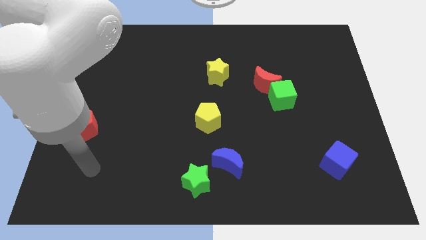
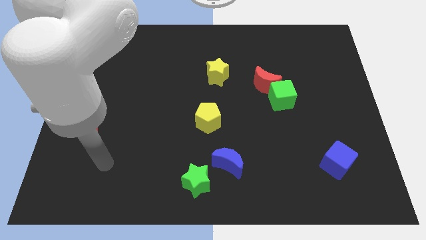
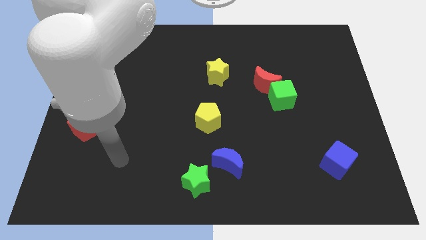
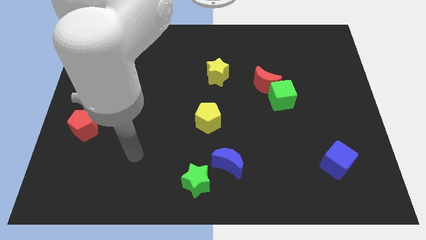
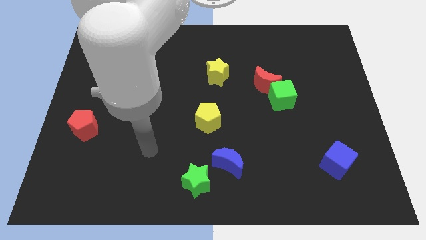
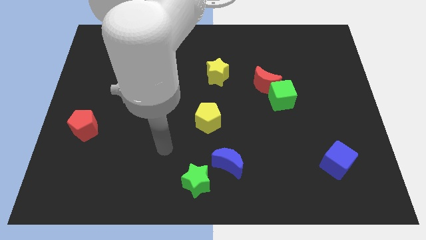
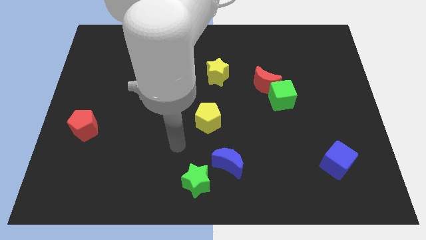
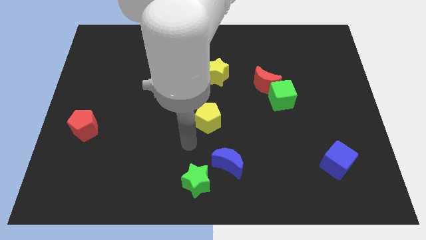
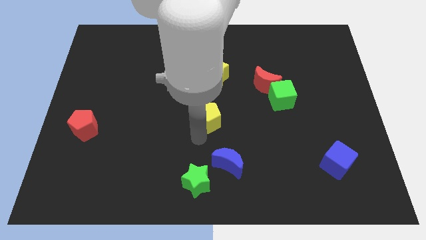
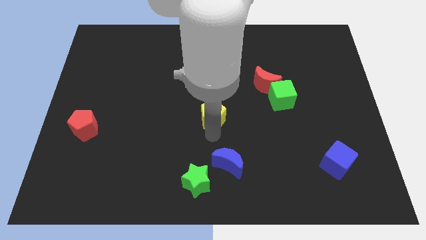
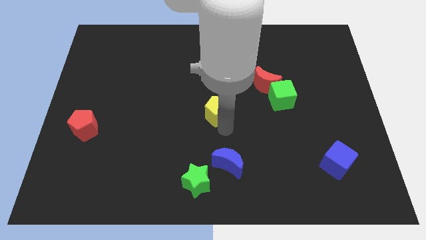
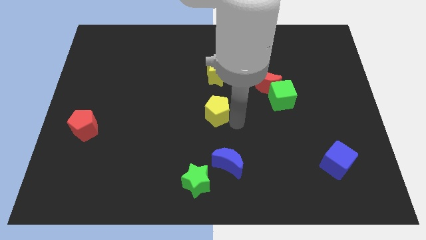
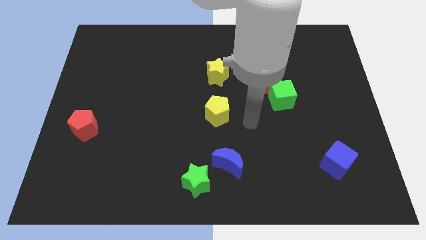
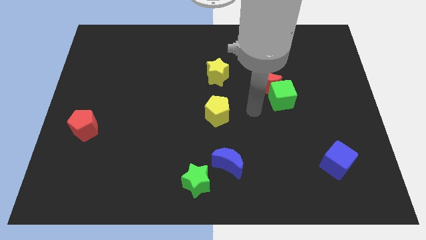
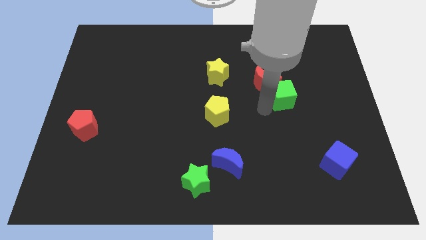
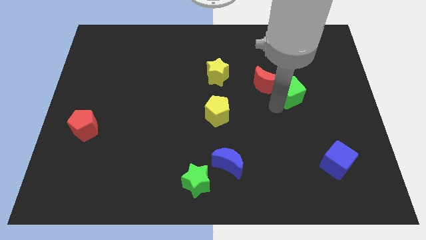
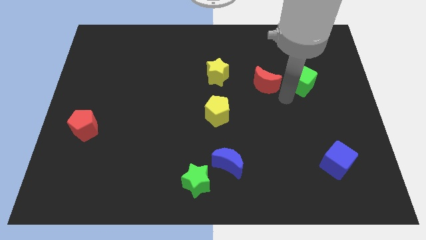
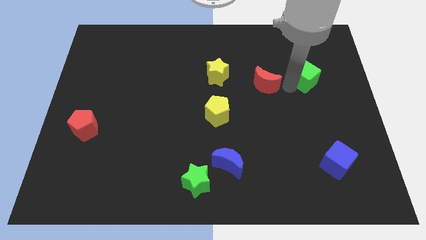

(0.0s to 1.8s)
move the red moon away from the green cube

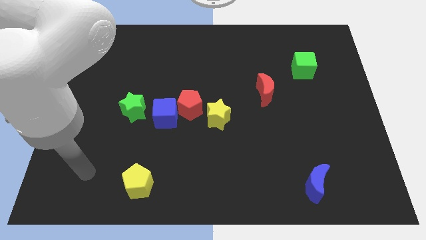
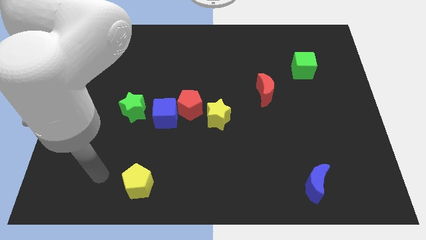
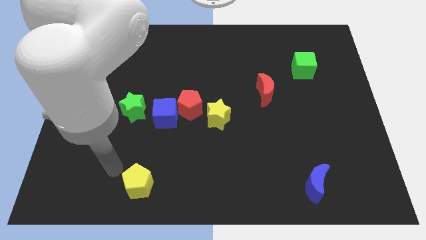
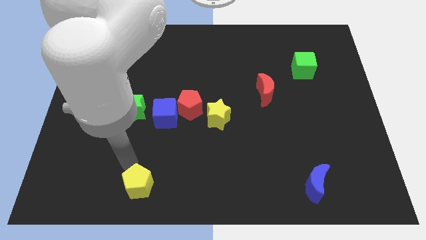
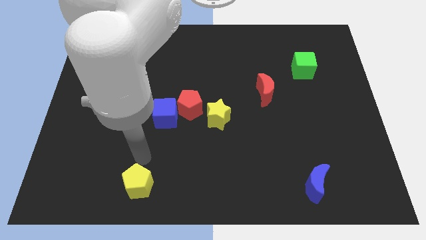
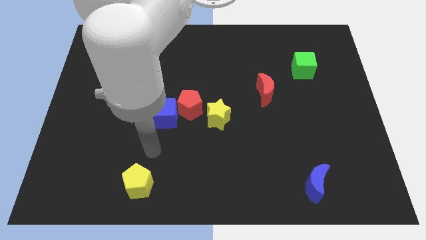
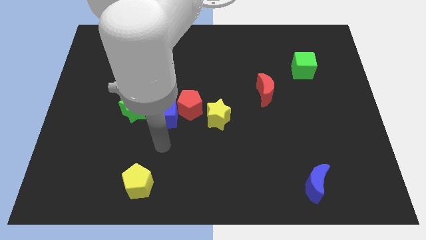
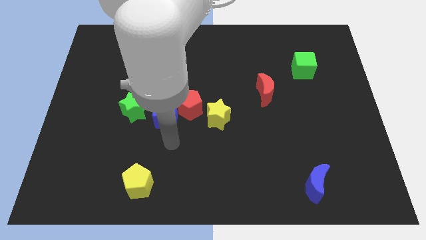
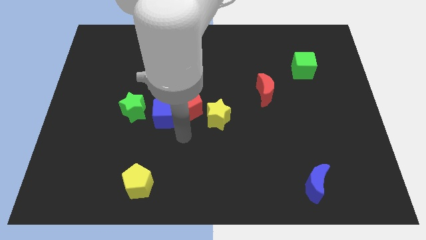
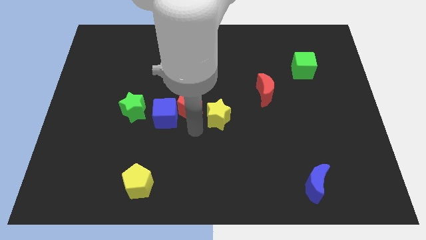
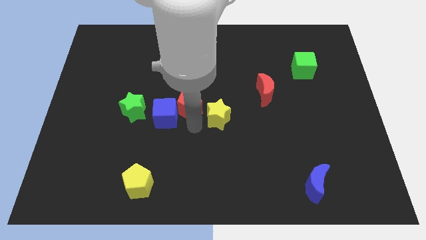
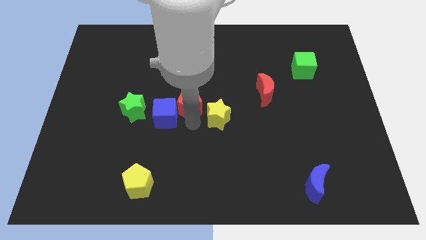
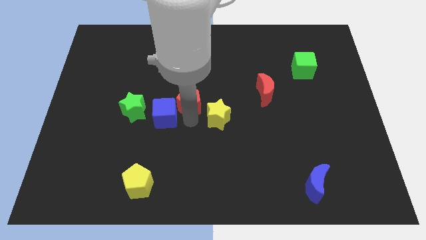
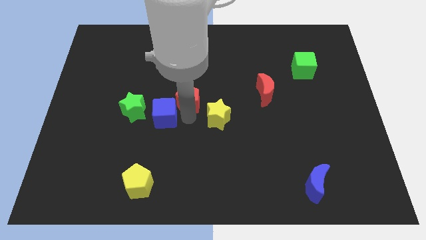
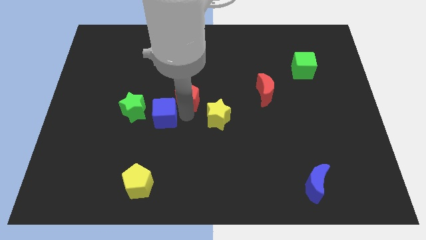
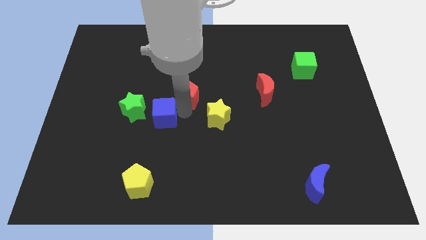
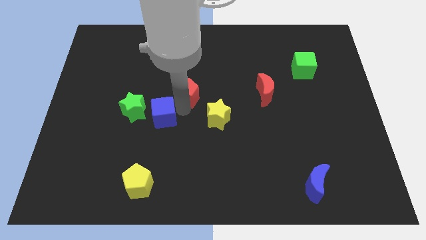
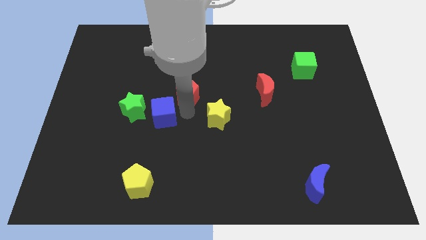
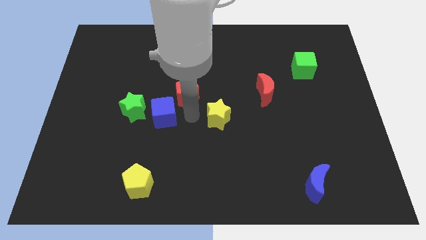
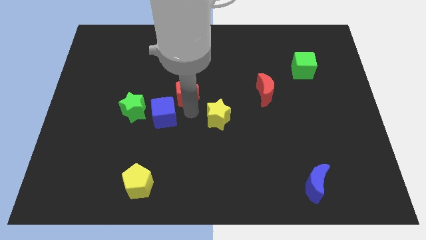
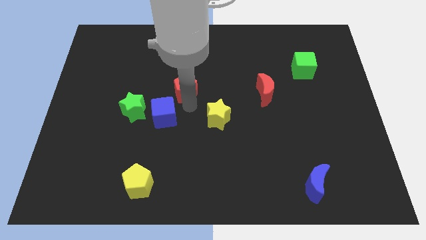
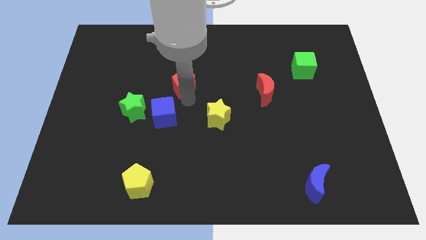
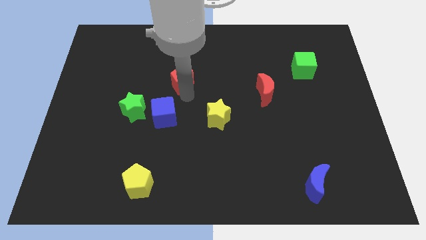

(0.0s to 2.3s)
pull the red pentagon apart from the blue cube and yellow star

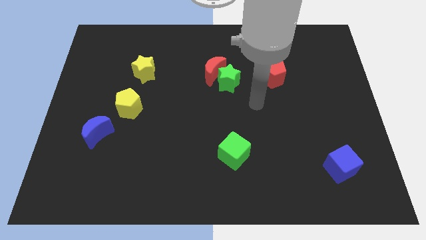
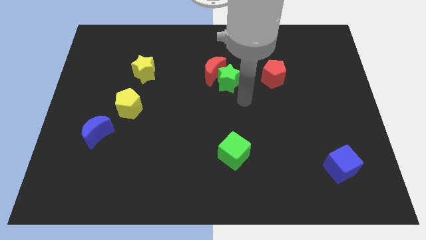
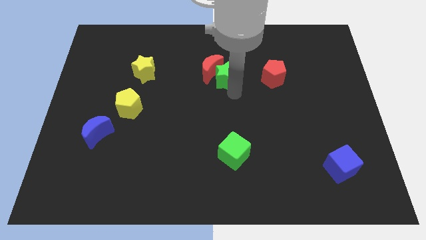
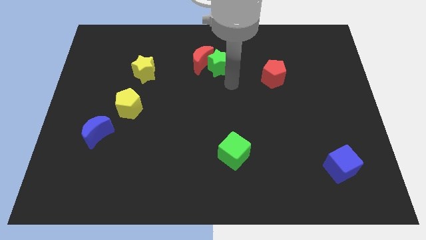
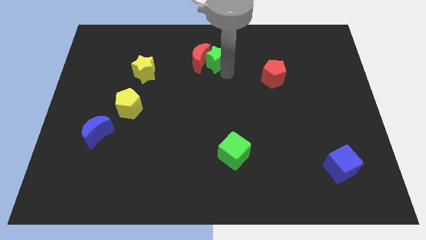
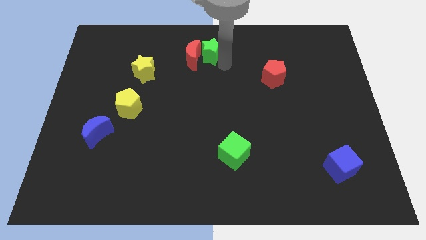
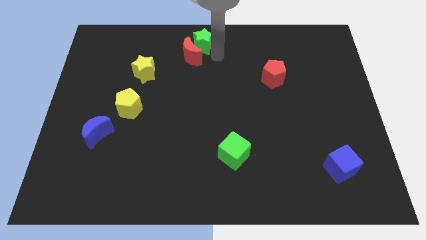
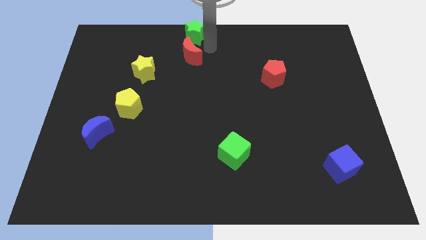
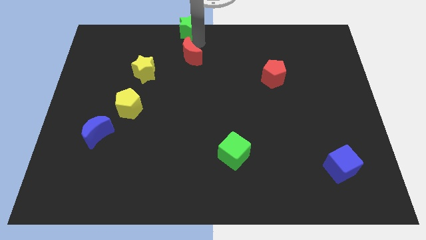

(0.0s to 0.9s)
pull the red moon apart from the green star

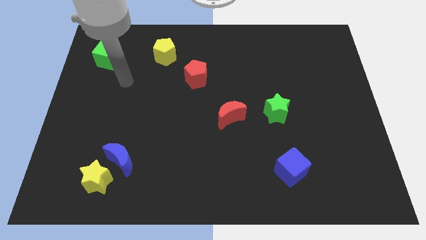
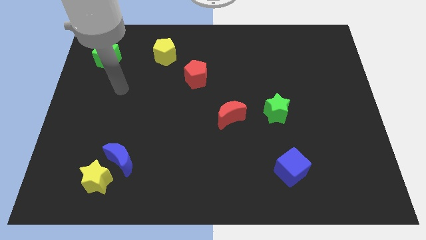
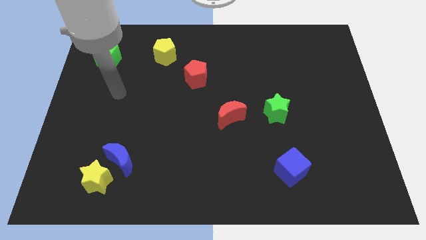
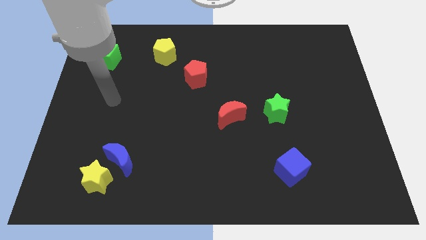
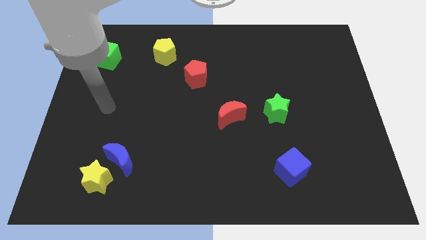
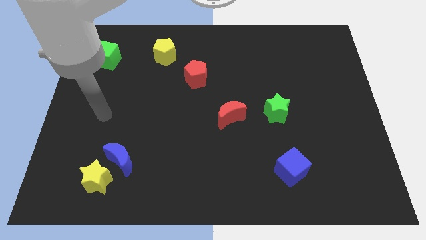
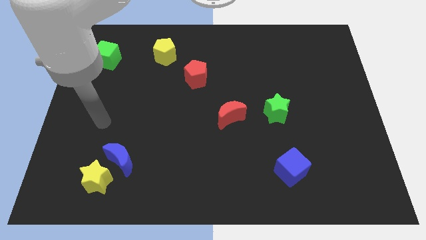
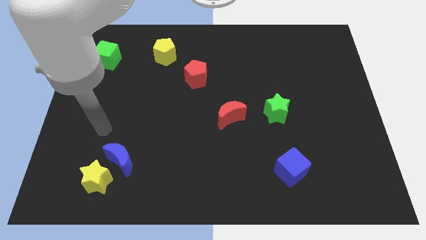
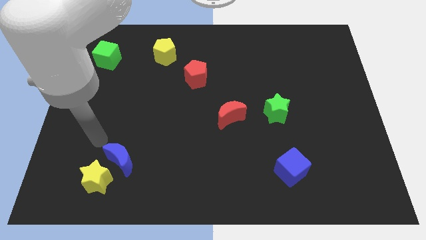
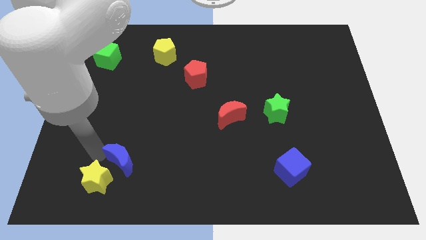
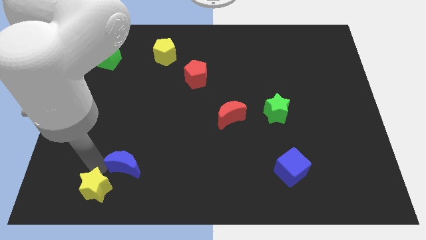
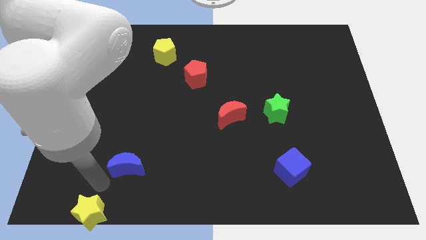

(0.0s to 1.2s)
separate the blue moon from the yellow star

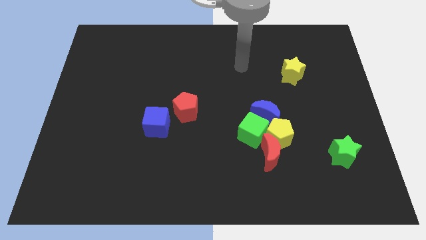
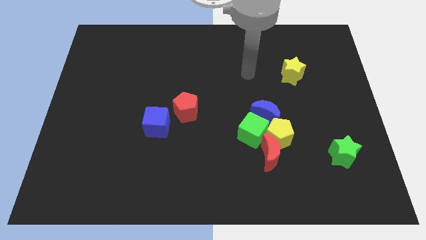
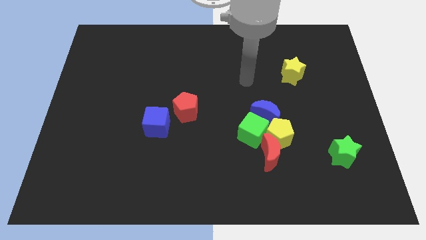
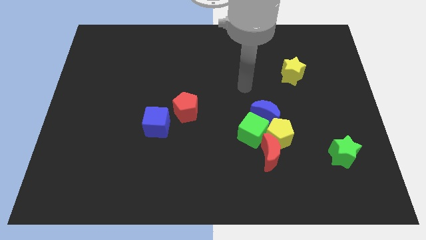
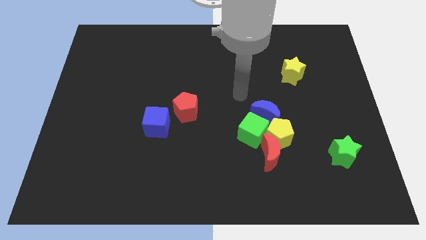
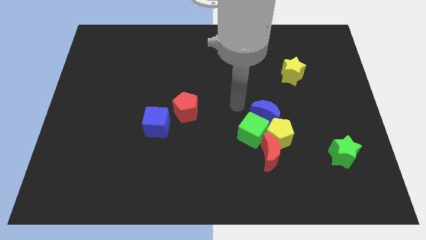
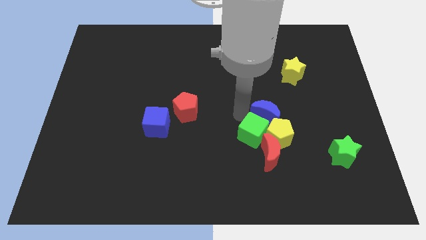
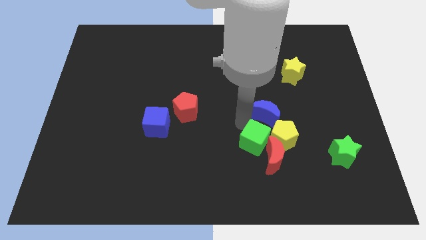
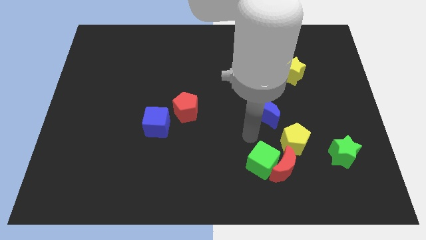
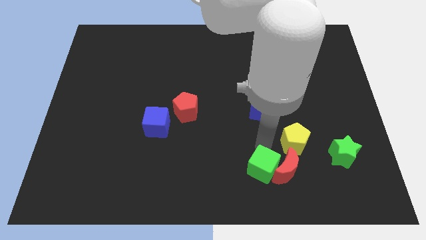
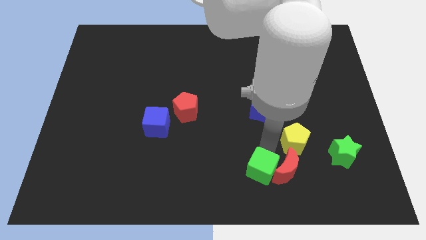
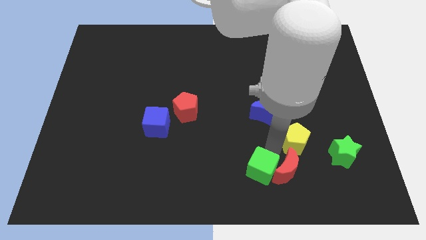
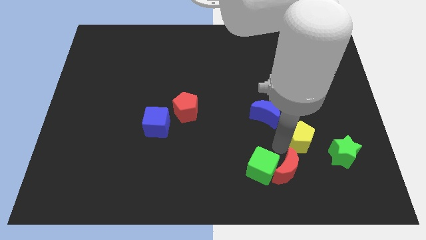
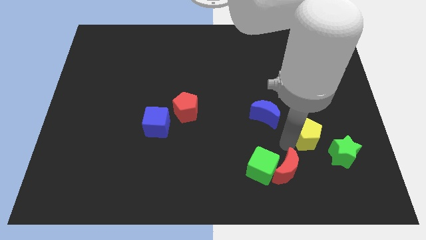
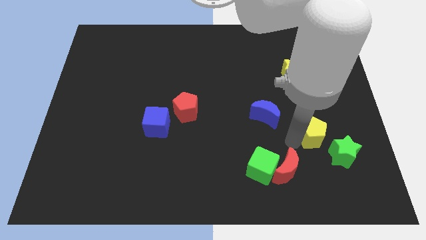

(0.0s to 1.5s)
move the yellow pentagon away from the red moon, green cube, and blue moon

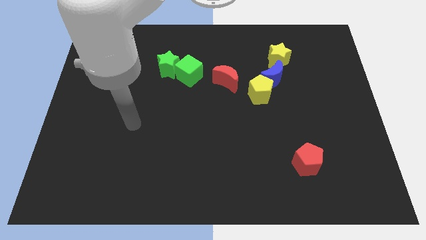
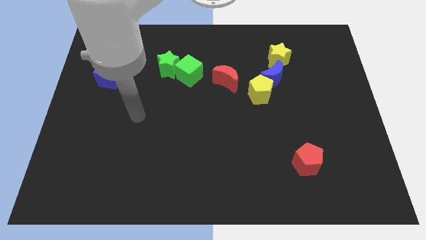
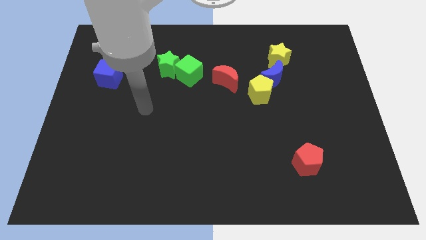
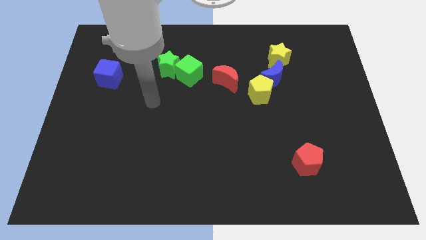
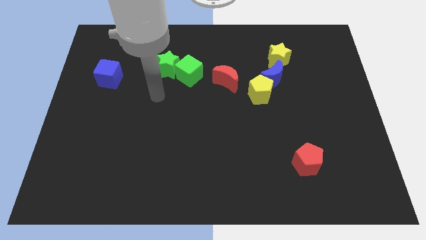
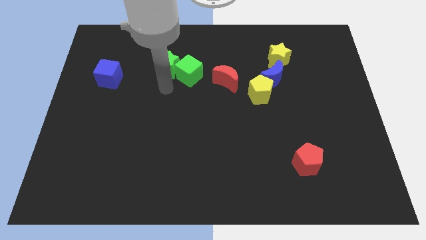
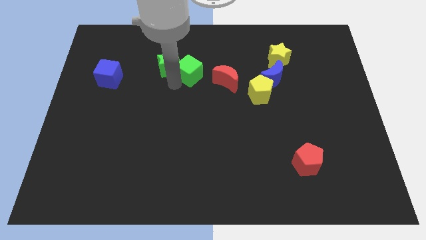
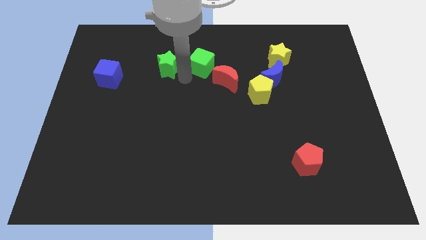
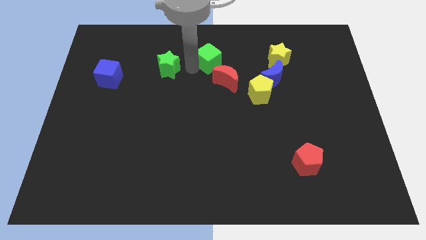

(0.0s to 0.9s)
separate the green star from the green cube

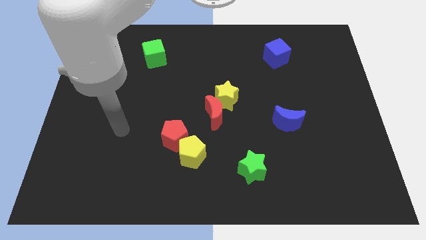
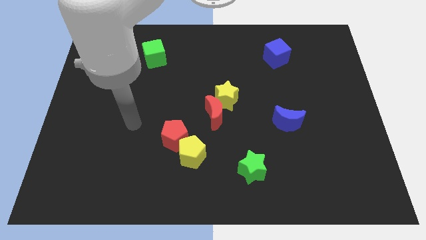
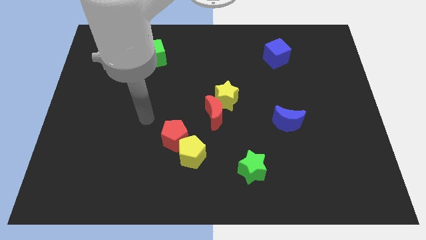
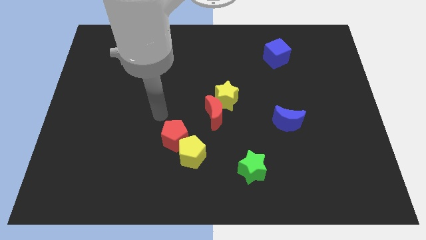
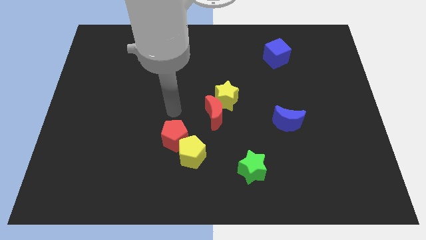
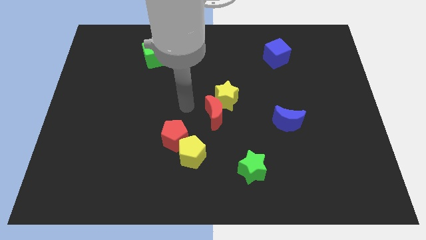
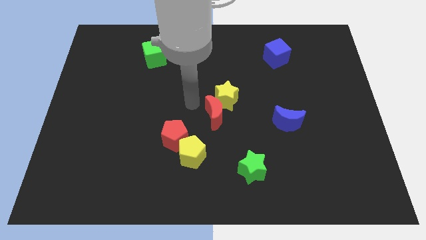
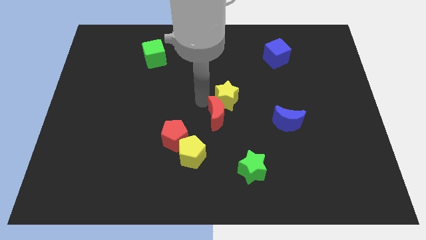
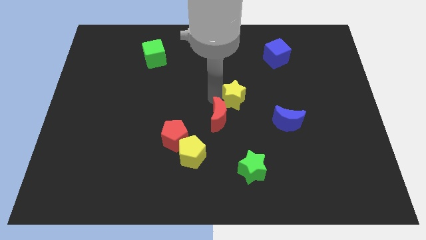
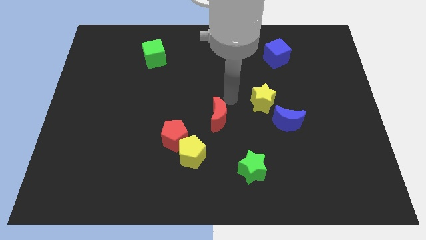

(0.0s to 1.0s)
pull the red moon apart from the yellow star
